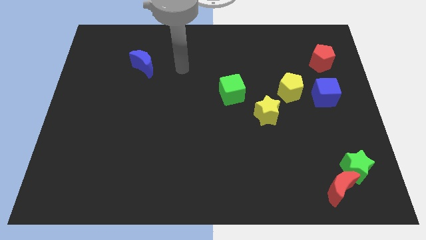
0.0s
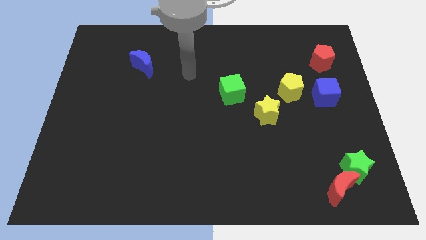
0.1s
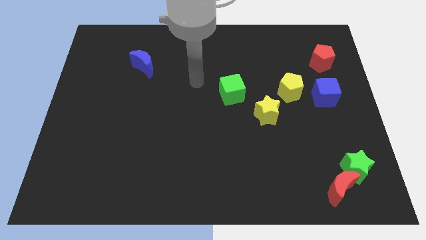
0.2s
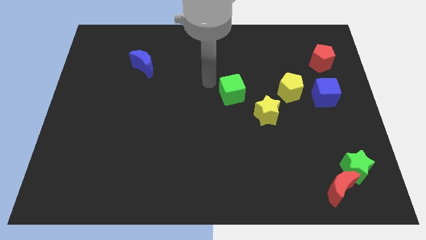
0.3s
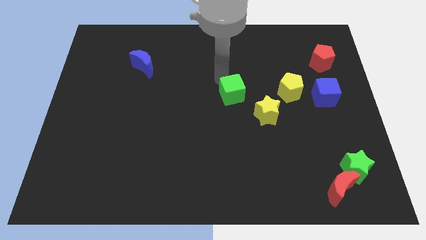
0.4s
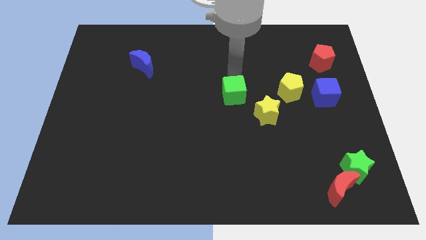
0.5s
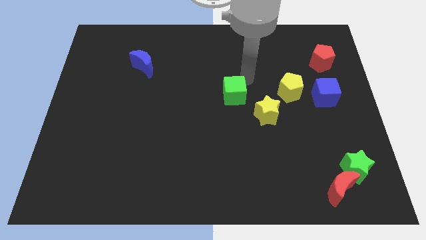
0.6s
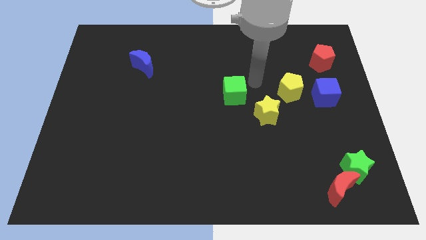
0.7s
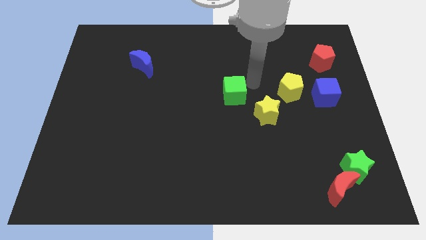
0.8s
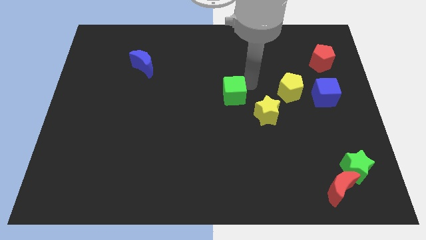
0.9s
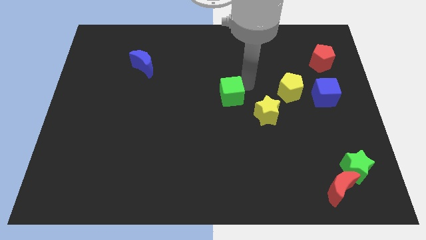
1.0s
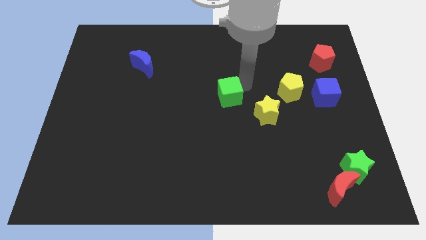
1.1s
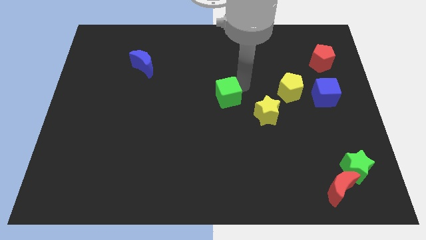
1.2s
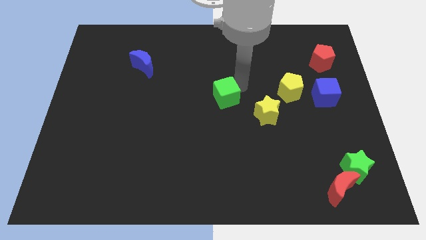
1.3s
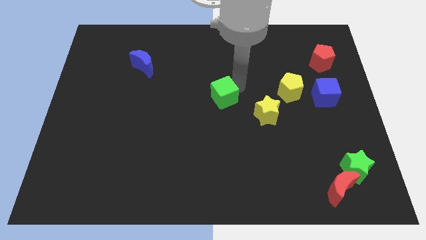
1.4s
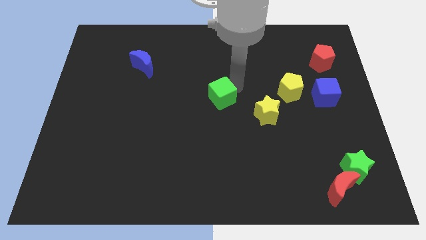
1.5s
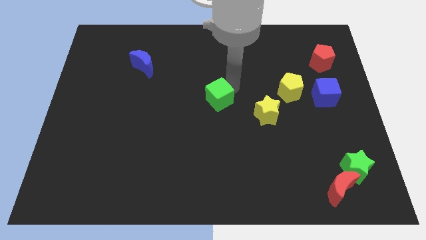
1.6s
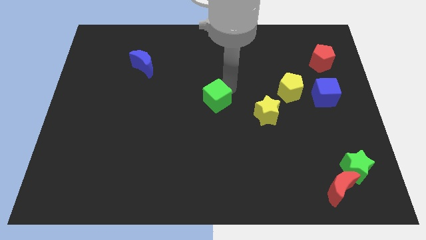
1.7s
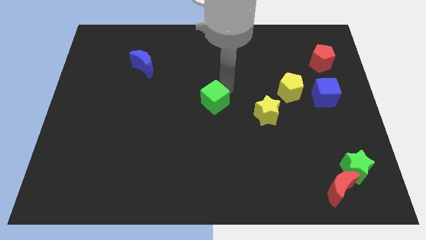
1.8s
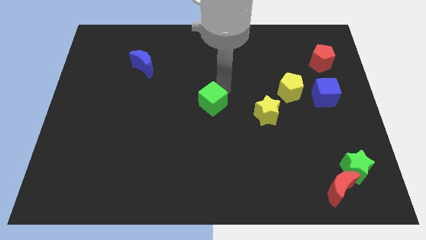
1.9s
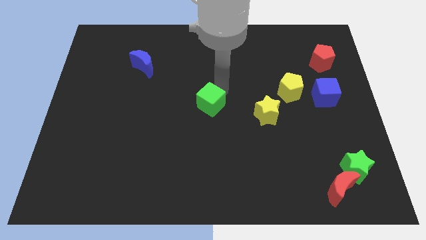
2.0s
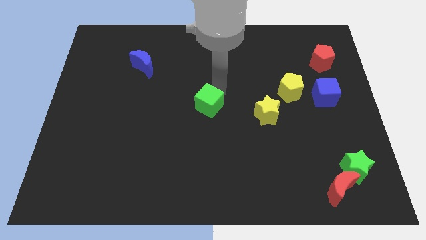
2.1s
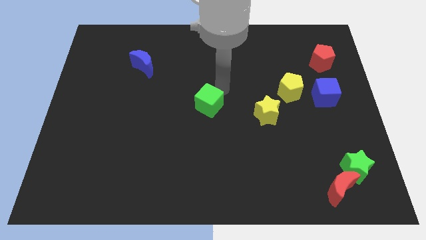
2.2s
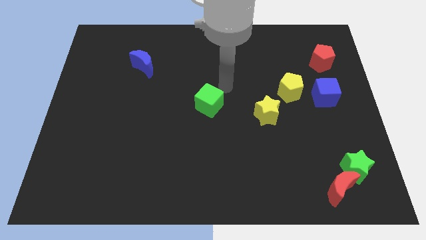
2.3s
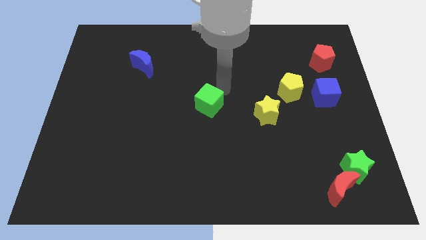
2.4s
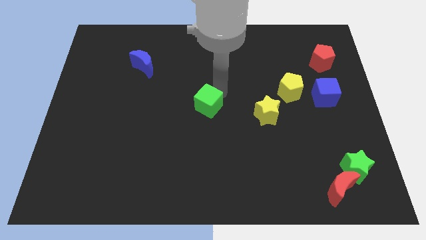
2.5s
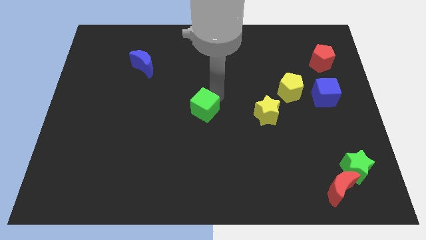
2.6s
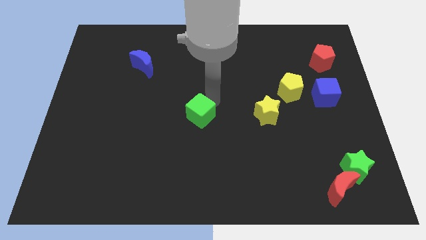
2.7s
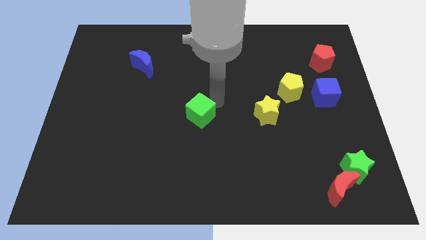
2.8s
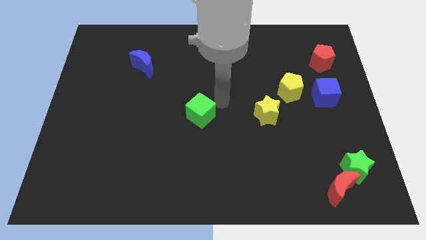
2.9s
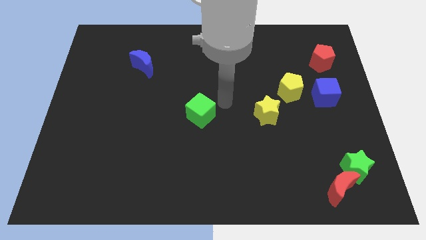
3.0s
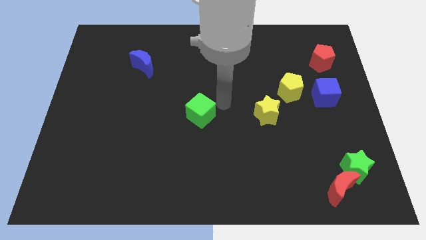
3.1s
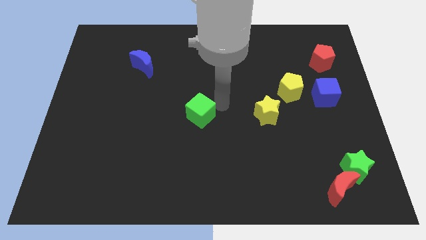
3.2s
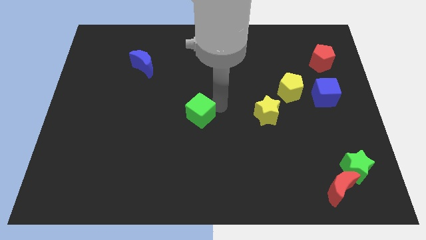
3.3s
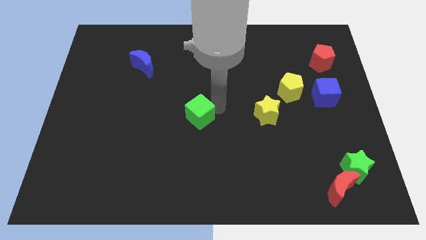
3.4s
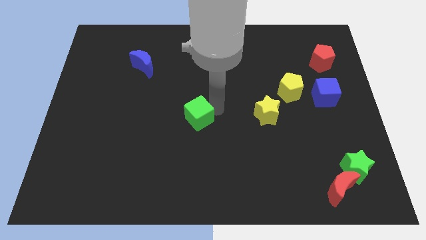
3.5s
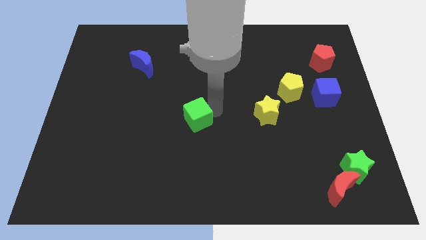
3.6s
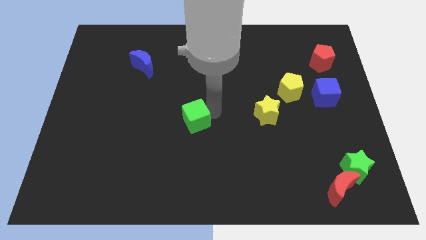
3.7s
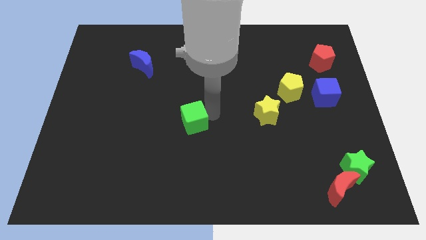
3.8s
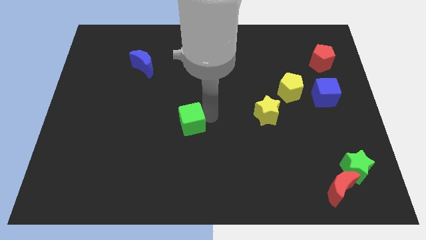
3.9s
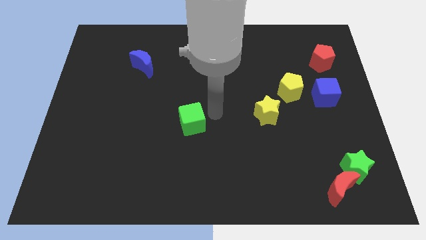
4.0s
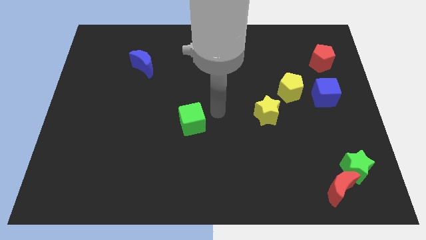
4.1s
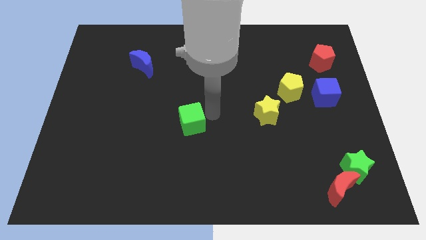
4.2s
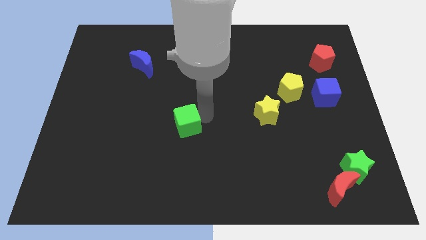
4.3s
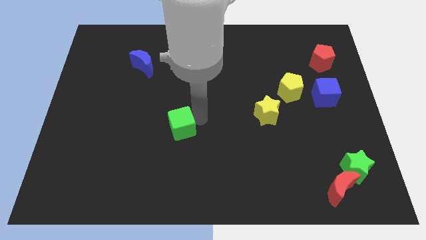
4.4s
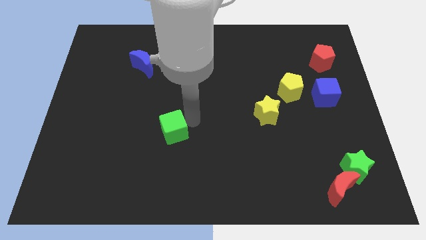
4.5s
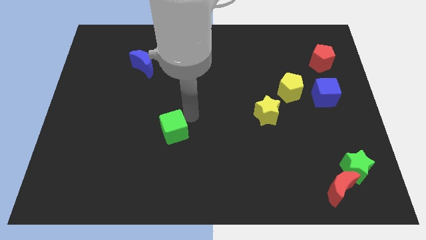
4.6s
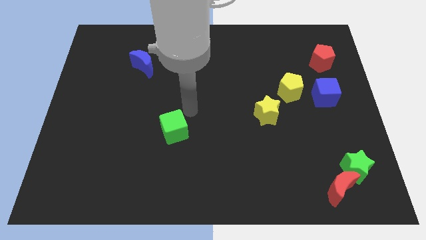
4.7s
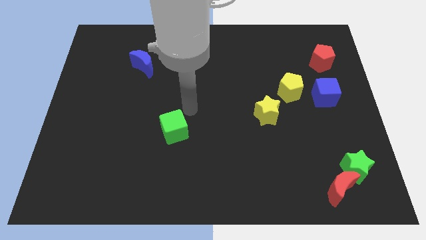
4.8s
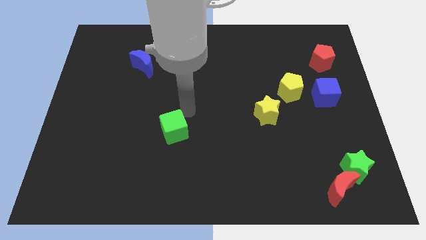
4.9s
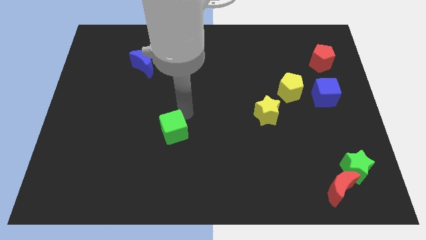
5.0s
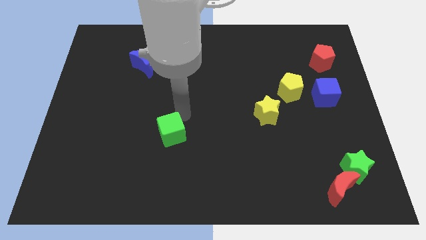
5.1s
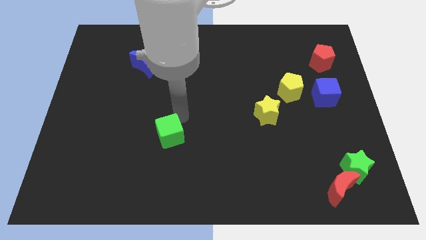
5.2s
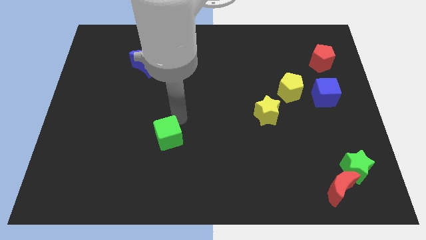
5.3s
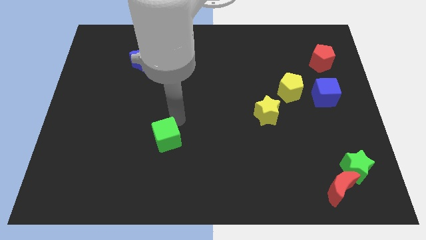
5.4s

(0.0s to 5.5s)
slide the green cube down and to the left

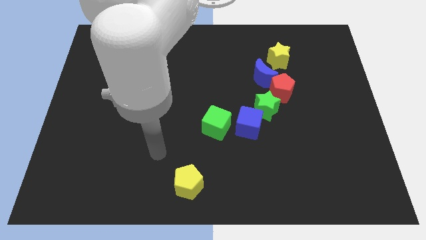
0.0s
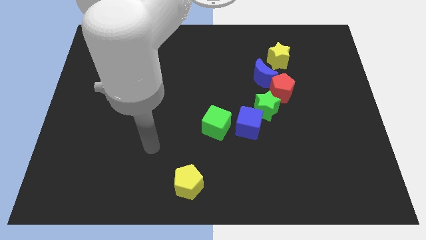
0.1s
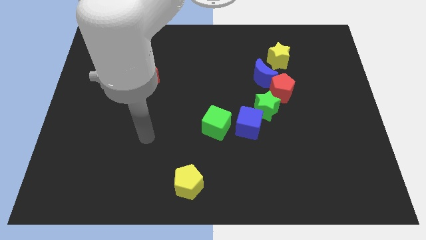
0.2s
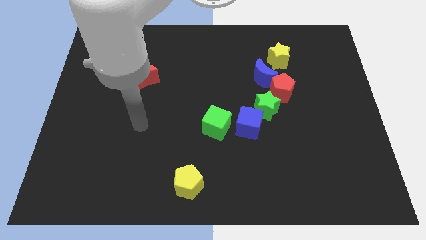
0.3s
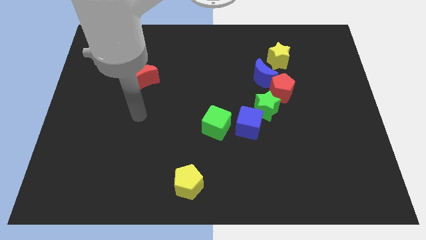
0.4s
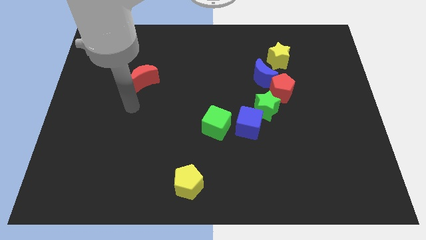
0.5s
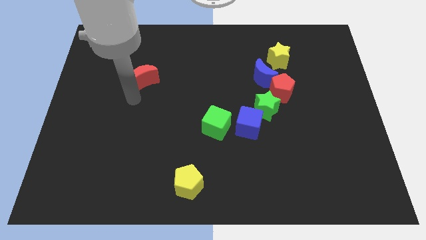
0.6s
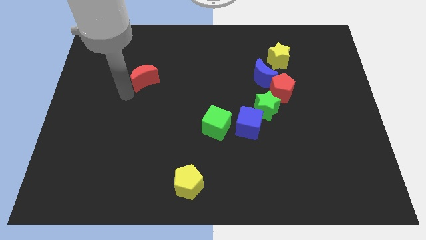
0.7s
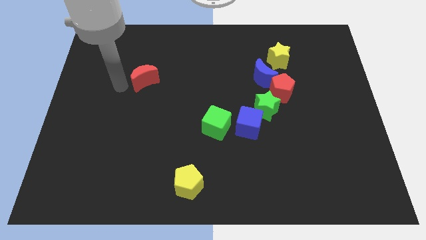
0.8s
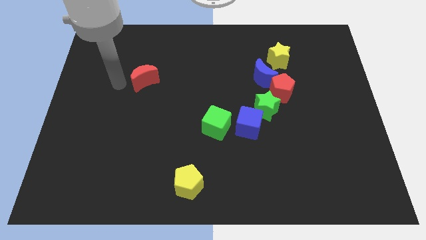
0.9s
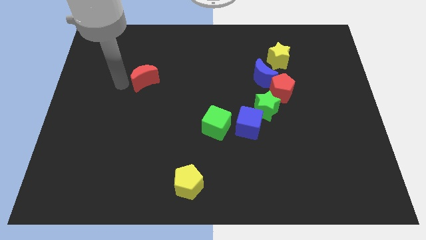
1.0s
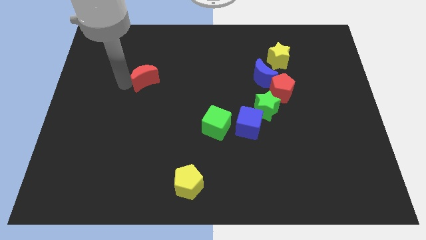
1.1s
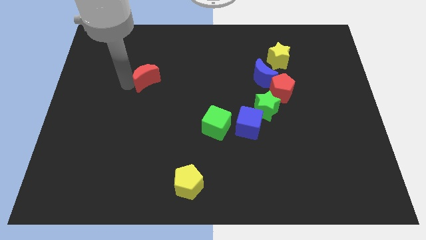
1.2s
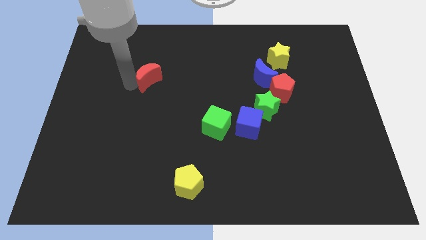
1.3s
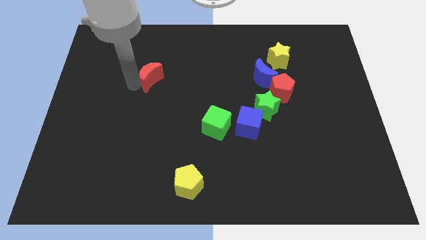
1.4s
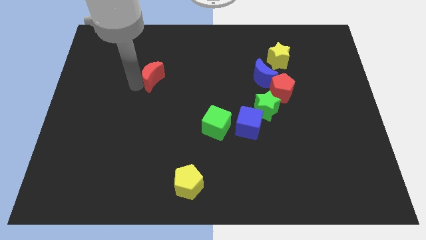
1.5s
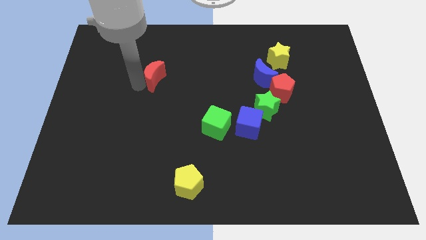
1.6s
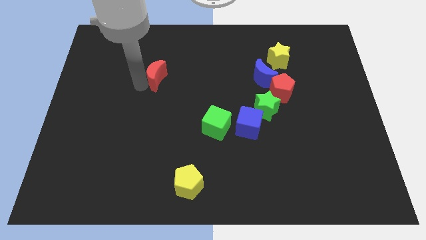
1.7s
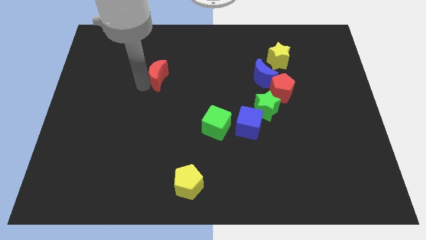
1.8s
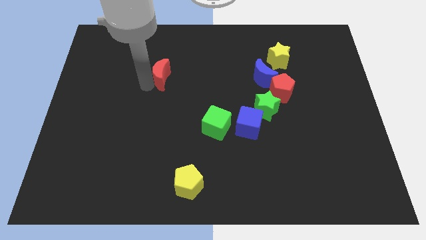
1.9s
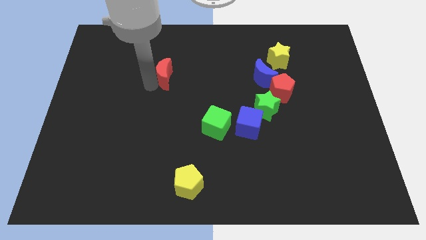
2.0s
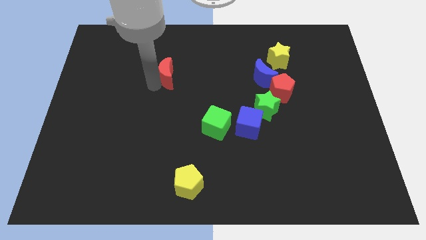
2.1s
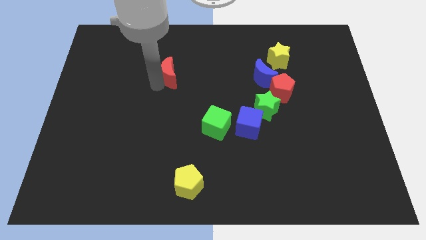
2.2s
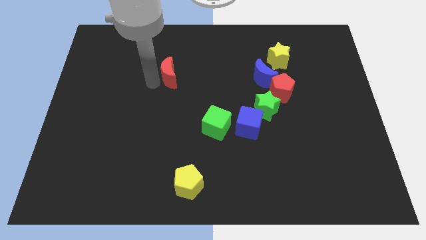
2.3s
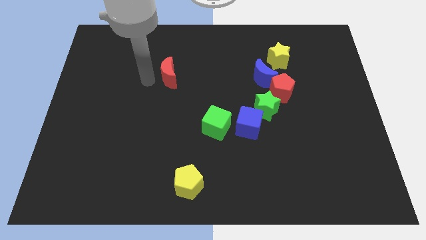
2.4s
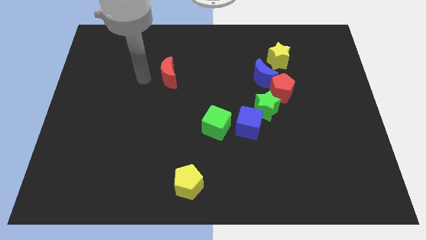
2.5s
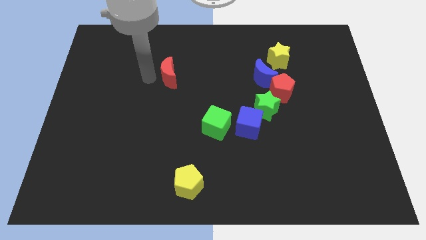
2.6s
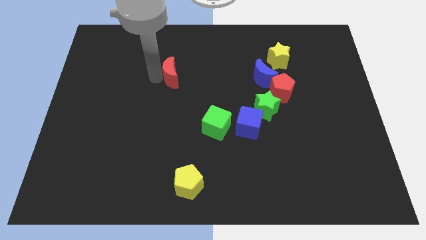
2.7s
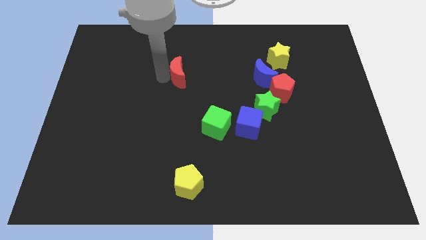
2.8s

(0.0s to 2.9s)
slide the red moon slightly right

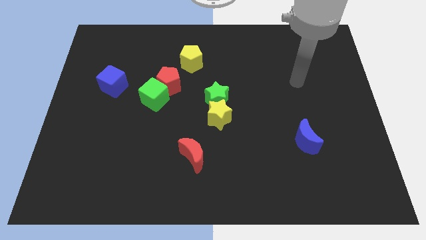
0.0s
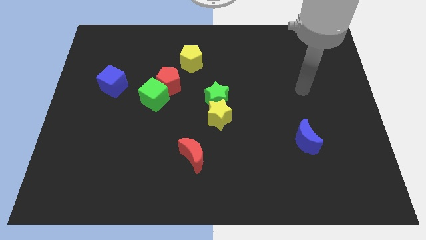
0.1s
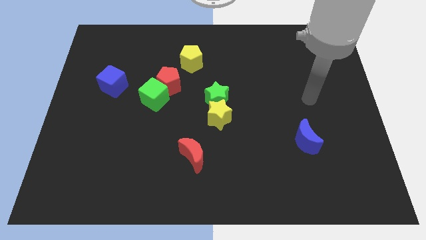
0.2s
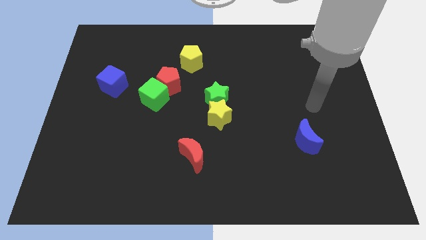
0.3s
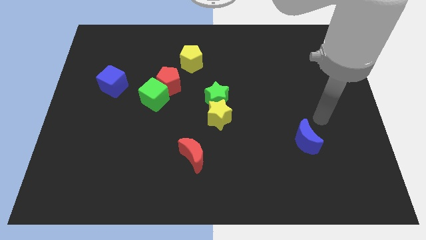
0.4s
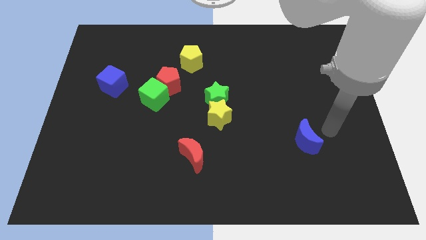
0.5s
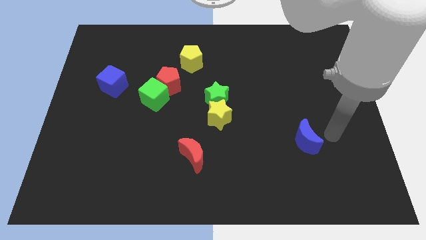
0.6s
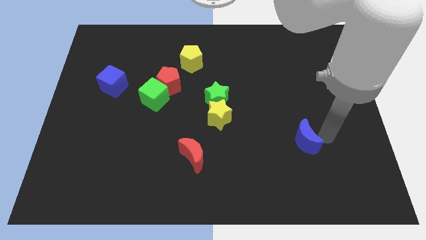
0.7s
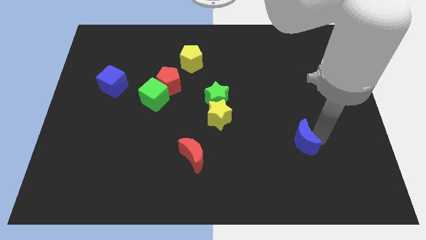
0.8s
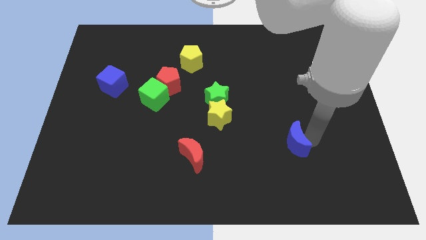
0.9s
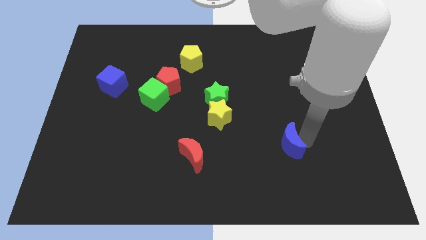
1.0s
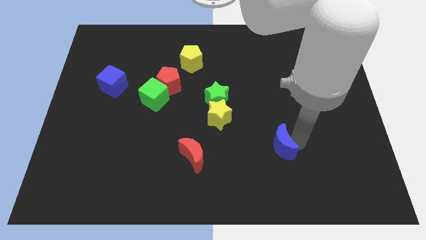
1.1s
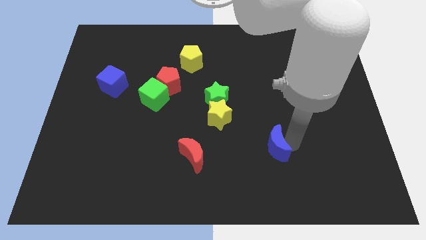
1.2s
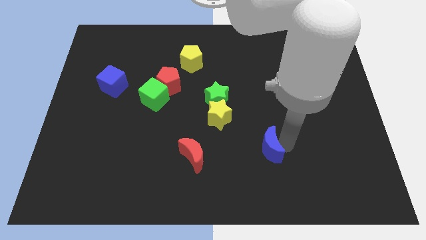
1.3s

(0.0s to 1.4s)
move the blue moon a little bit to the left
